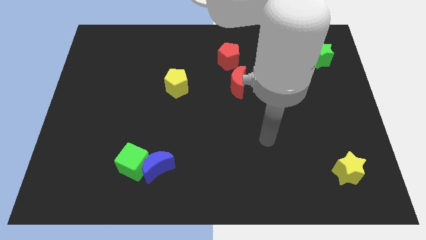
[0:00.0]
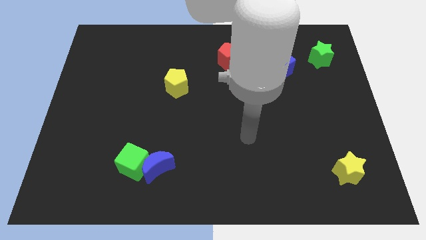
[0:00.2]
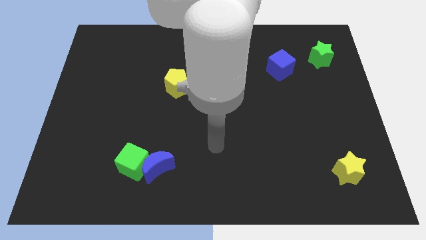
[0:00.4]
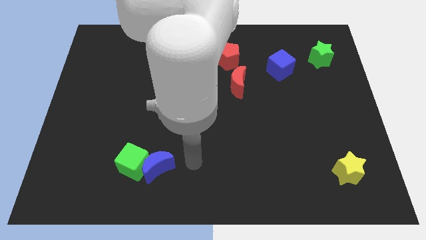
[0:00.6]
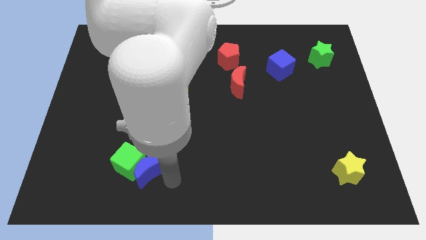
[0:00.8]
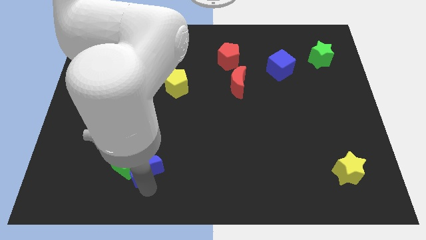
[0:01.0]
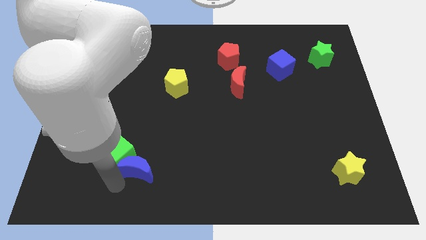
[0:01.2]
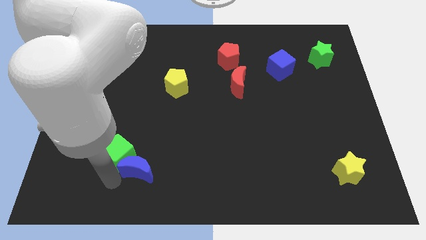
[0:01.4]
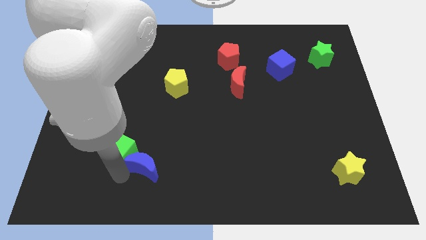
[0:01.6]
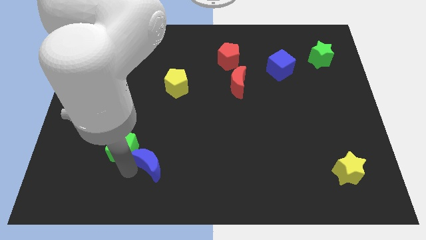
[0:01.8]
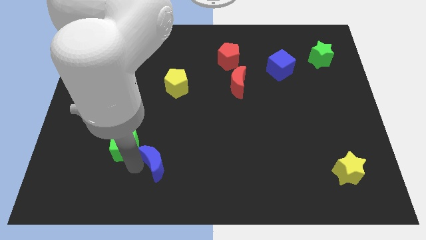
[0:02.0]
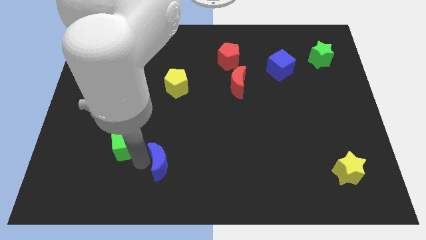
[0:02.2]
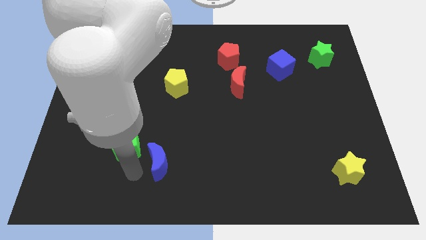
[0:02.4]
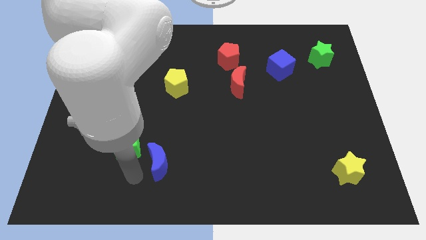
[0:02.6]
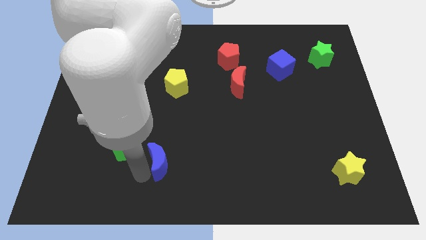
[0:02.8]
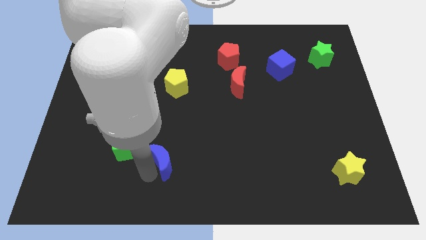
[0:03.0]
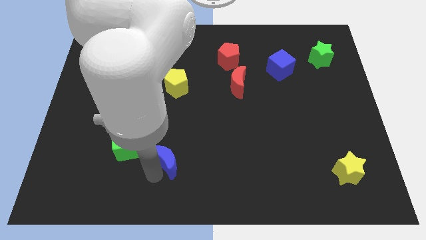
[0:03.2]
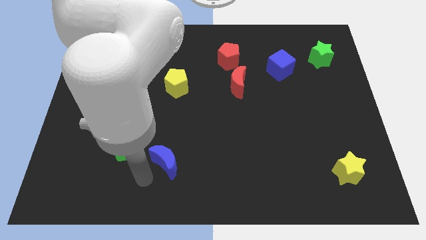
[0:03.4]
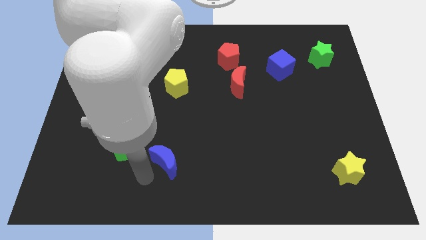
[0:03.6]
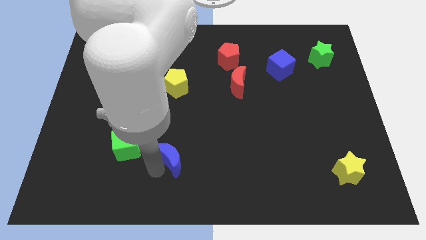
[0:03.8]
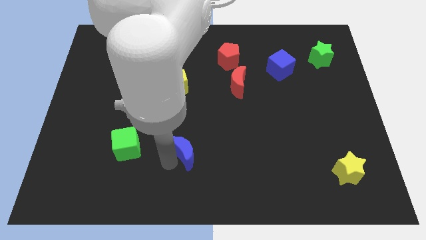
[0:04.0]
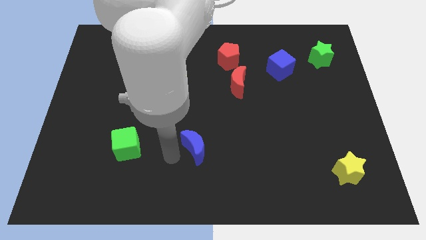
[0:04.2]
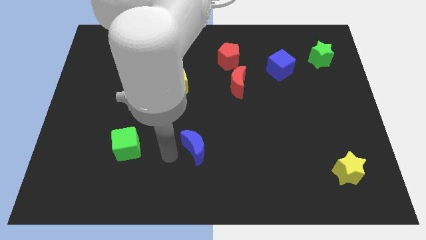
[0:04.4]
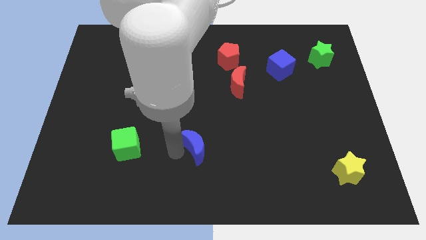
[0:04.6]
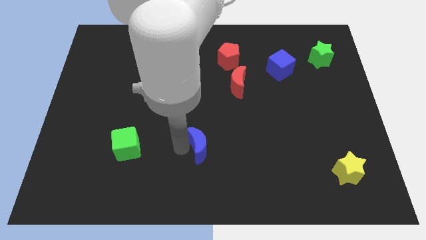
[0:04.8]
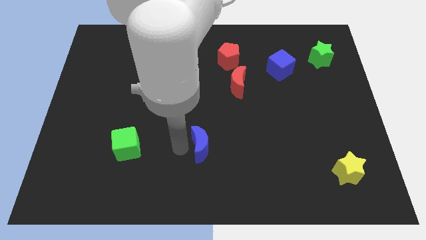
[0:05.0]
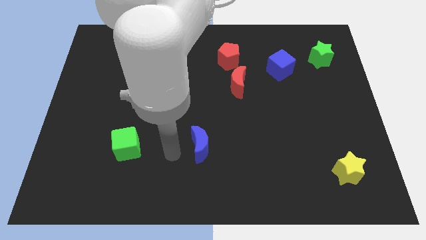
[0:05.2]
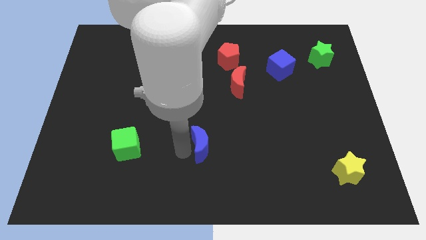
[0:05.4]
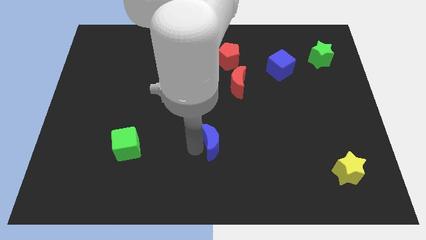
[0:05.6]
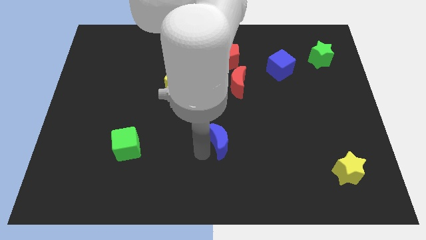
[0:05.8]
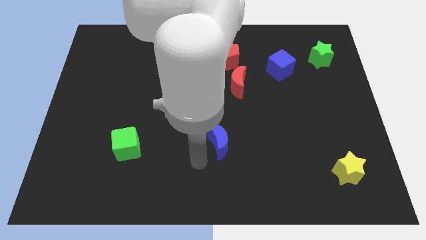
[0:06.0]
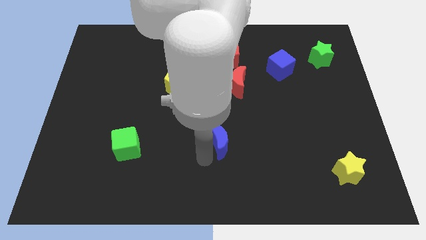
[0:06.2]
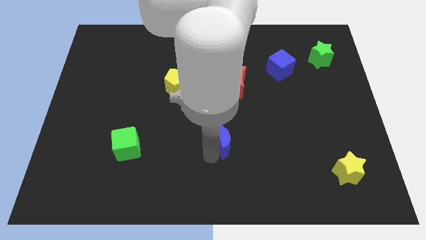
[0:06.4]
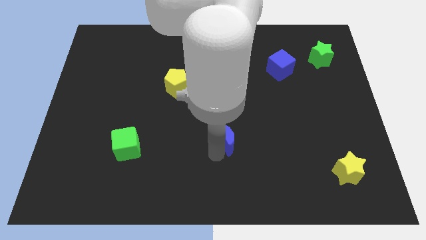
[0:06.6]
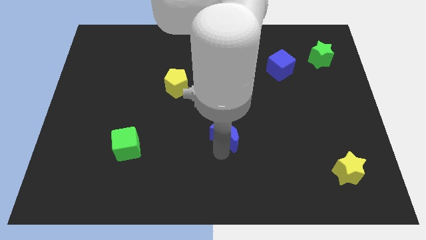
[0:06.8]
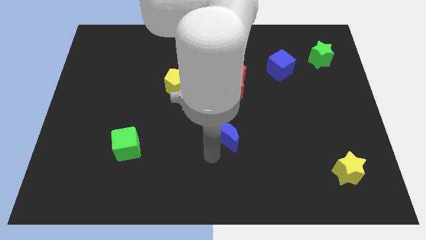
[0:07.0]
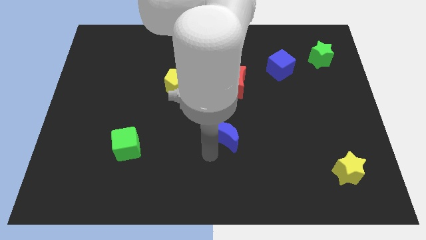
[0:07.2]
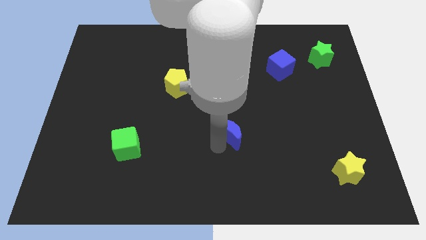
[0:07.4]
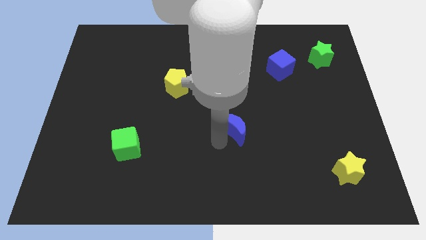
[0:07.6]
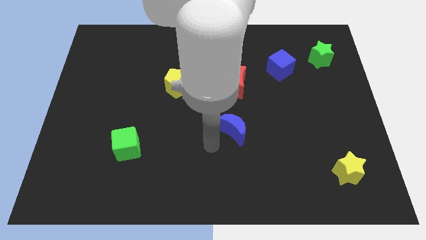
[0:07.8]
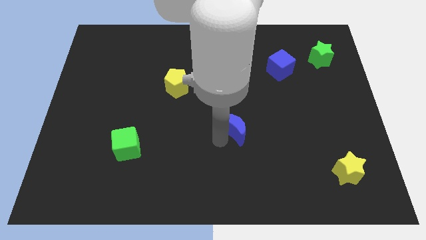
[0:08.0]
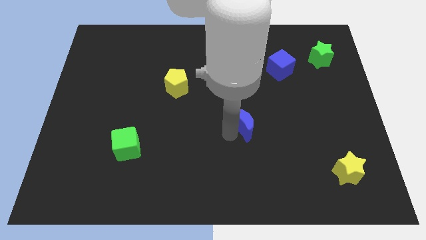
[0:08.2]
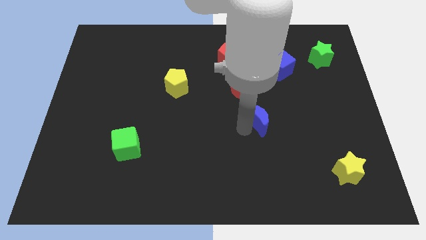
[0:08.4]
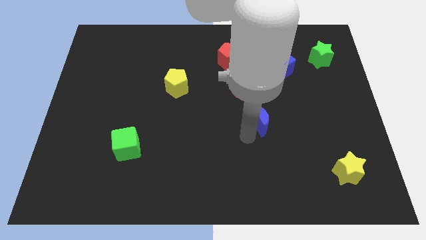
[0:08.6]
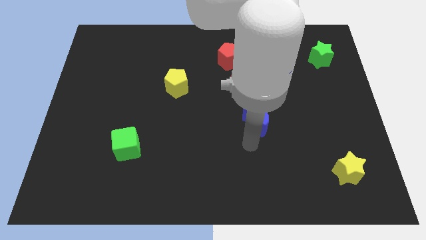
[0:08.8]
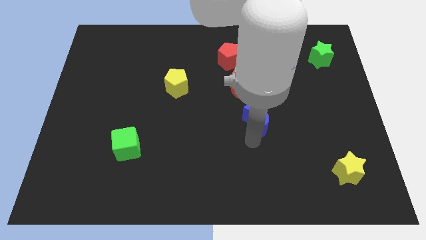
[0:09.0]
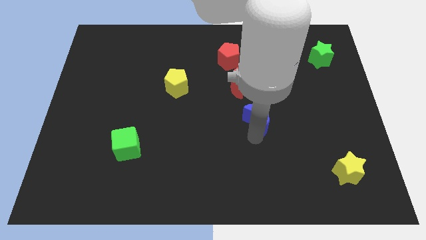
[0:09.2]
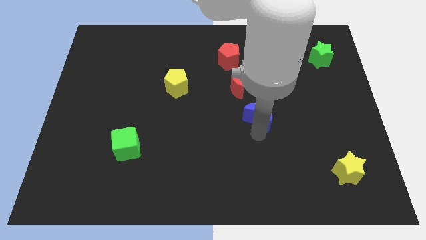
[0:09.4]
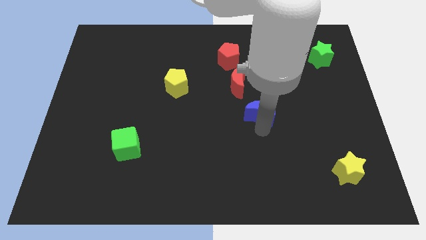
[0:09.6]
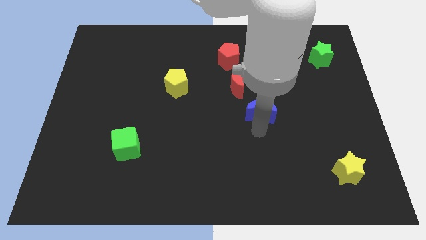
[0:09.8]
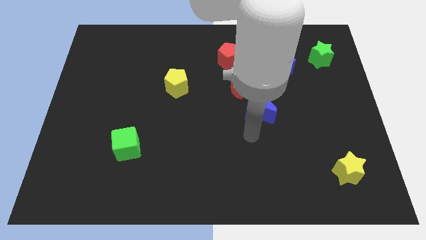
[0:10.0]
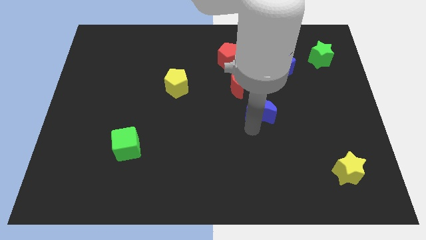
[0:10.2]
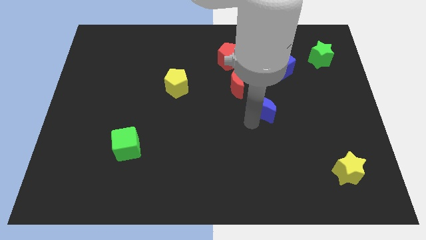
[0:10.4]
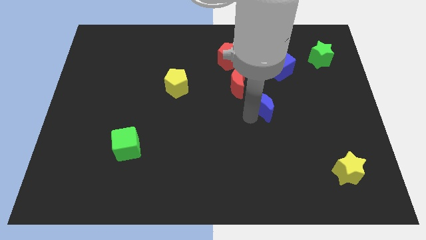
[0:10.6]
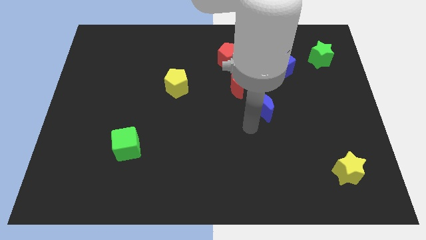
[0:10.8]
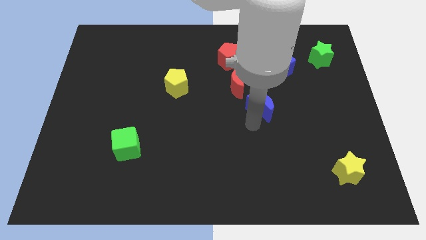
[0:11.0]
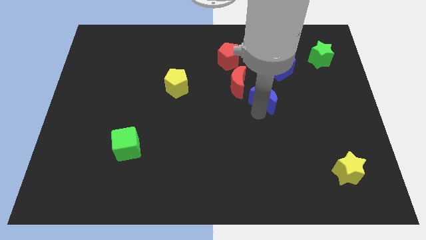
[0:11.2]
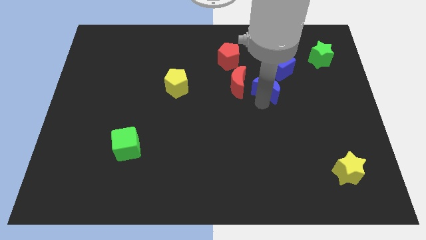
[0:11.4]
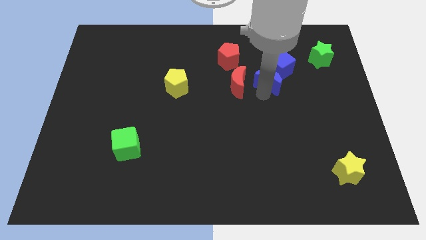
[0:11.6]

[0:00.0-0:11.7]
slide the blue moon close to the blue cube

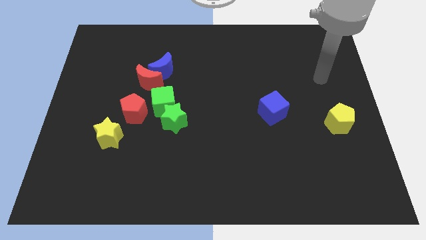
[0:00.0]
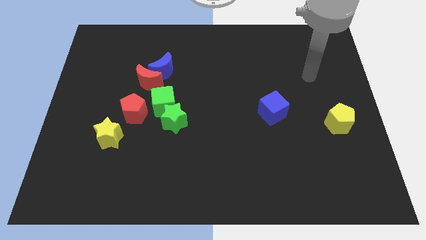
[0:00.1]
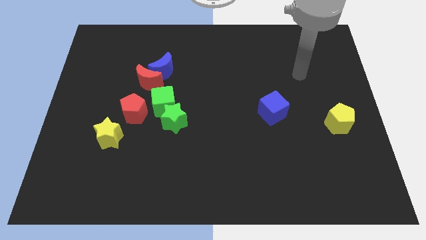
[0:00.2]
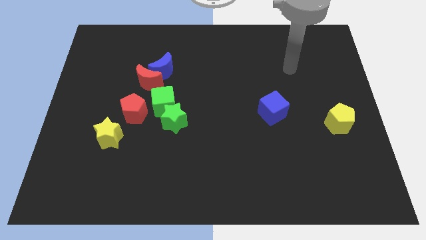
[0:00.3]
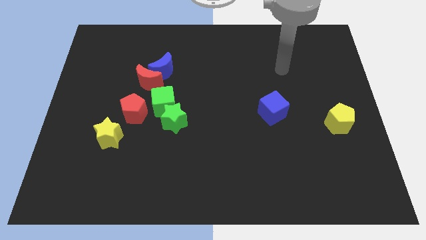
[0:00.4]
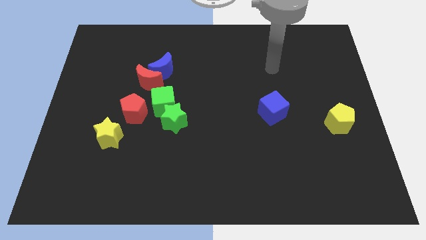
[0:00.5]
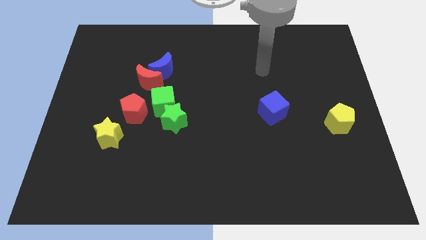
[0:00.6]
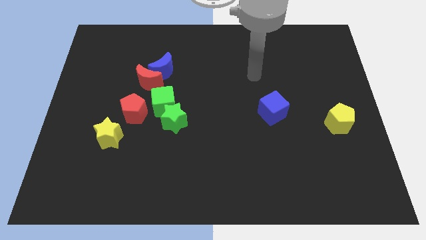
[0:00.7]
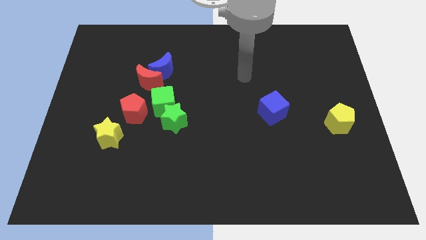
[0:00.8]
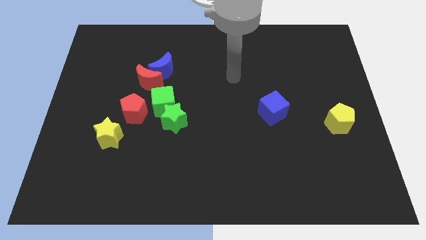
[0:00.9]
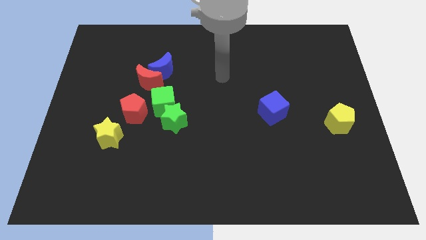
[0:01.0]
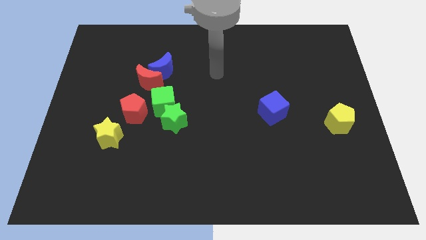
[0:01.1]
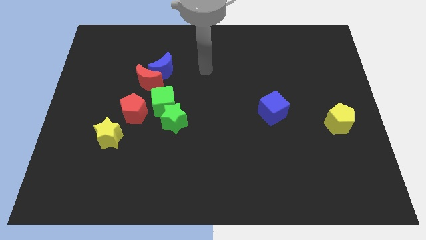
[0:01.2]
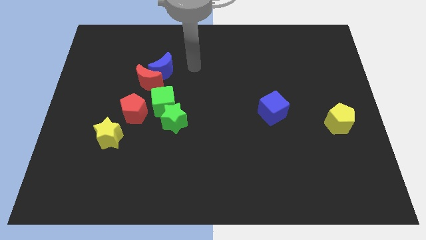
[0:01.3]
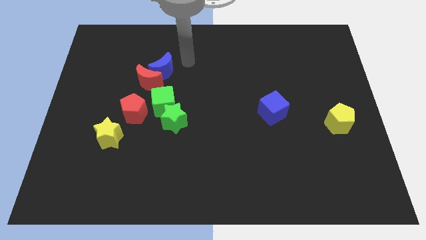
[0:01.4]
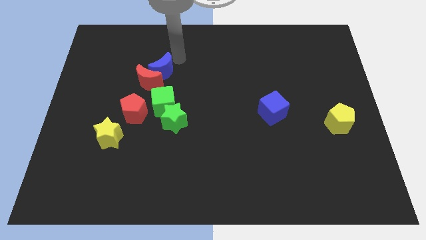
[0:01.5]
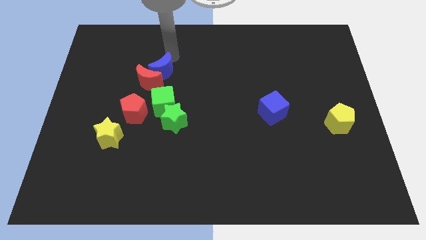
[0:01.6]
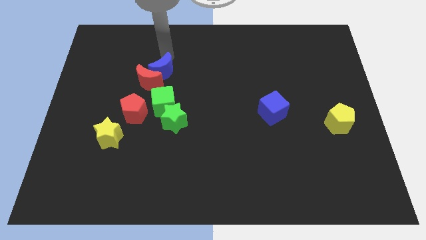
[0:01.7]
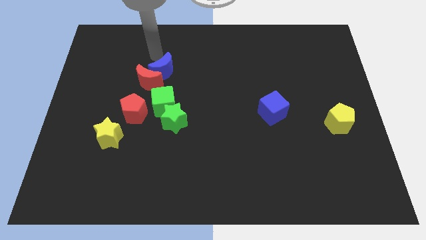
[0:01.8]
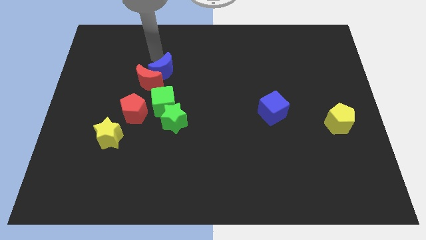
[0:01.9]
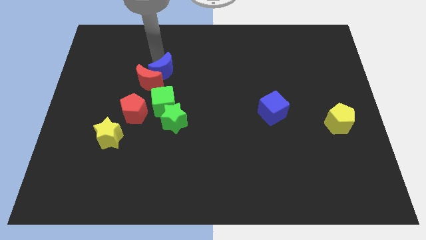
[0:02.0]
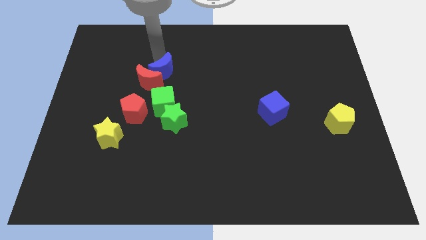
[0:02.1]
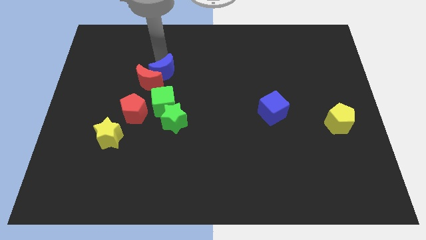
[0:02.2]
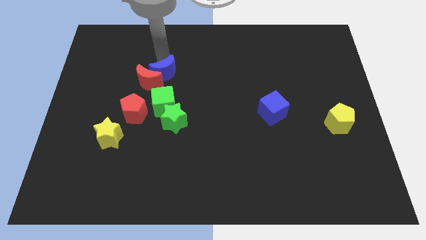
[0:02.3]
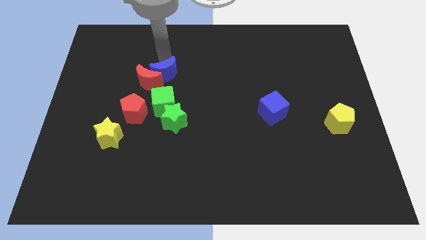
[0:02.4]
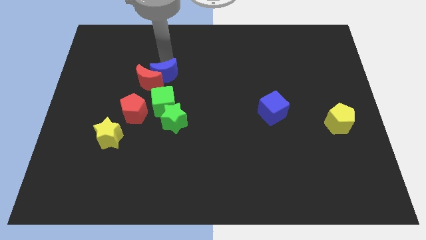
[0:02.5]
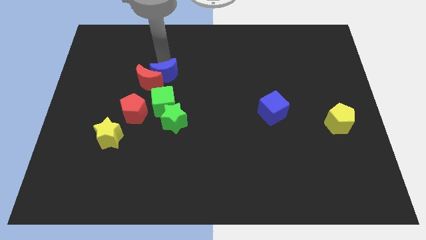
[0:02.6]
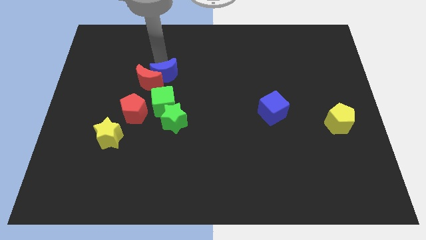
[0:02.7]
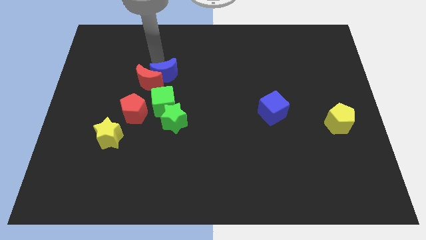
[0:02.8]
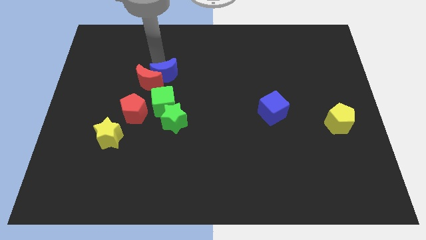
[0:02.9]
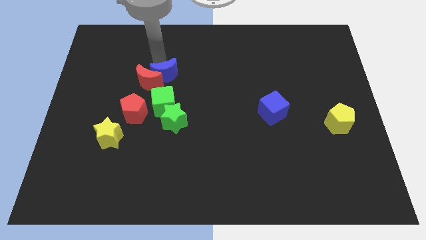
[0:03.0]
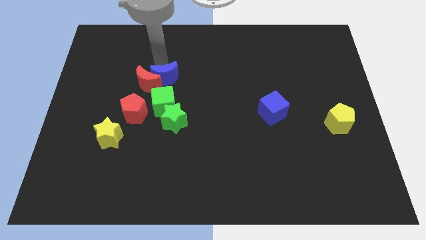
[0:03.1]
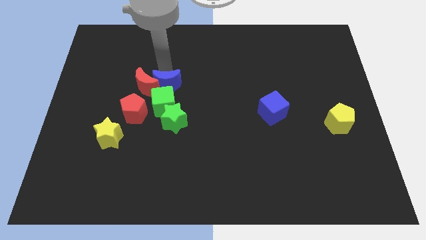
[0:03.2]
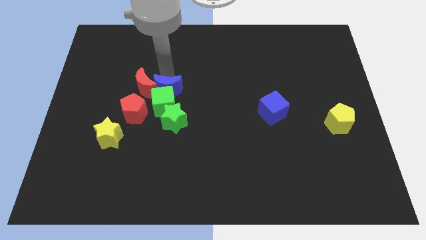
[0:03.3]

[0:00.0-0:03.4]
slide the blue moon close to the green cube
